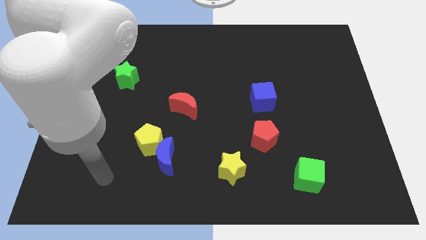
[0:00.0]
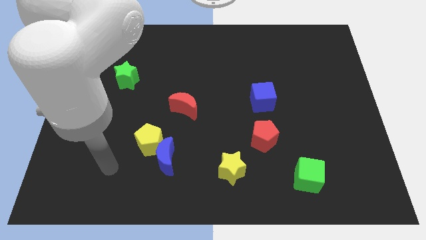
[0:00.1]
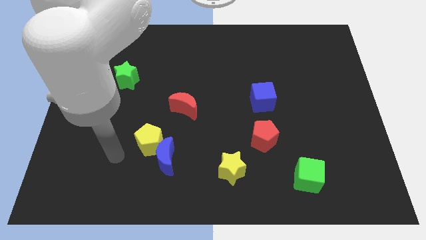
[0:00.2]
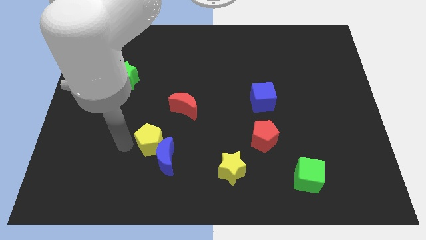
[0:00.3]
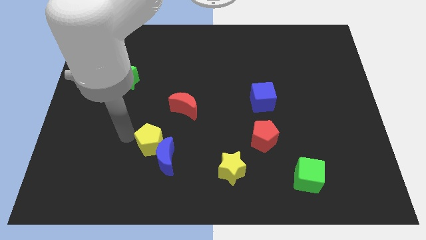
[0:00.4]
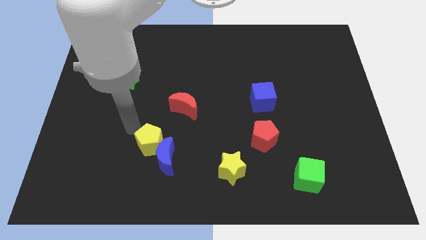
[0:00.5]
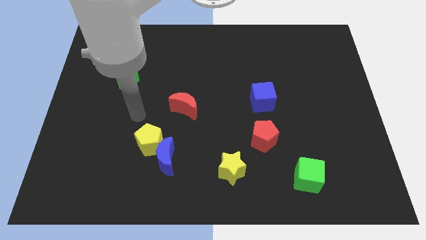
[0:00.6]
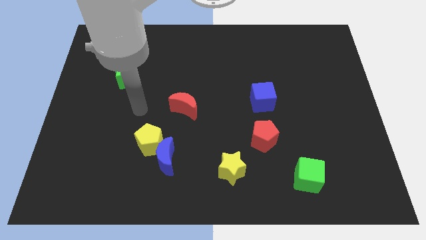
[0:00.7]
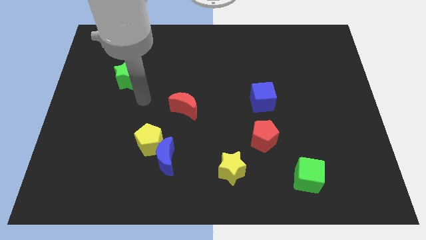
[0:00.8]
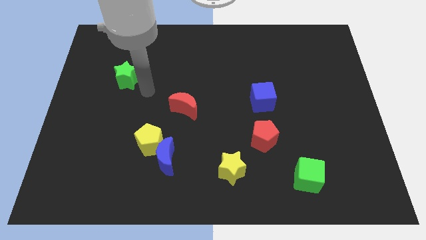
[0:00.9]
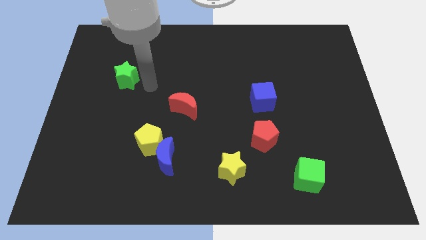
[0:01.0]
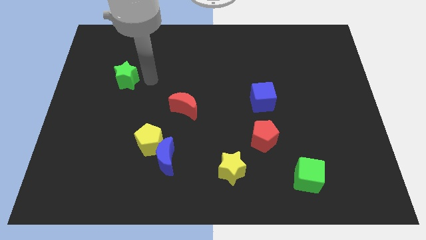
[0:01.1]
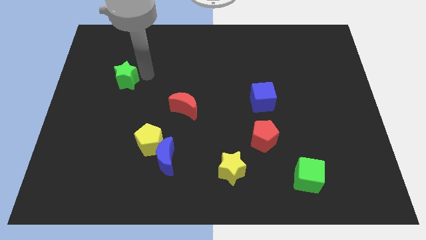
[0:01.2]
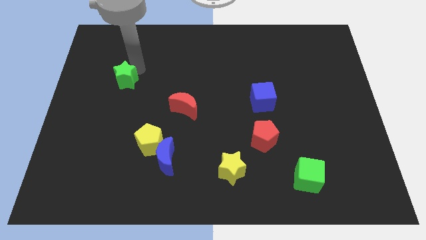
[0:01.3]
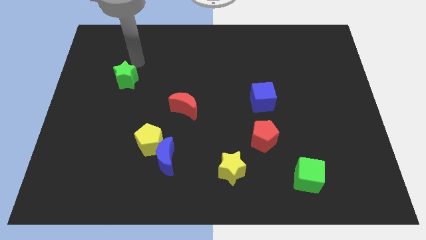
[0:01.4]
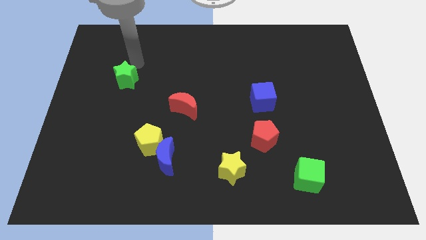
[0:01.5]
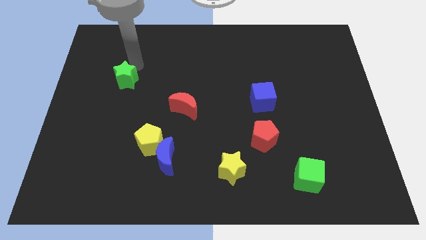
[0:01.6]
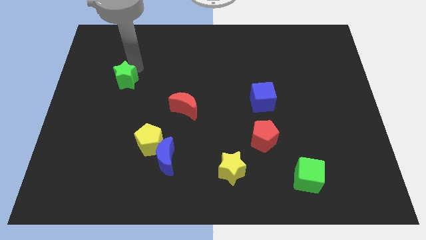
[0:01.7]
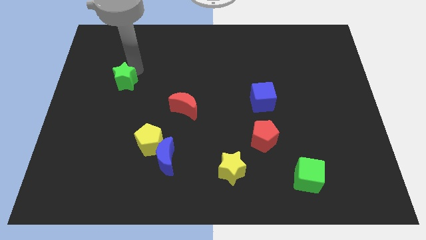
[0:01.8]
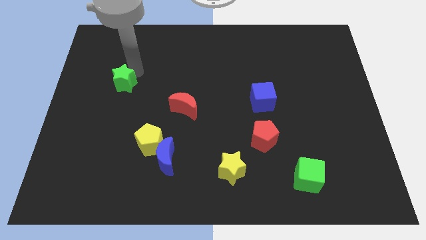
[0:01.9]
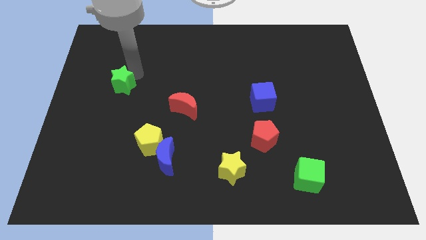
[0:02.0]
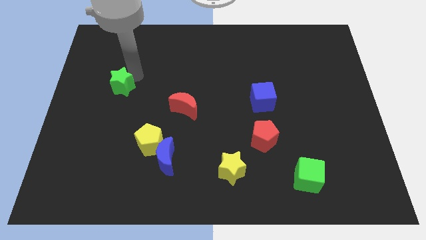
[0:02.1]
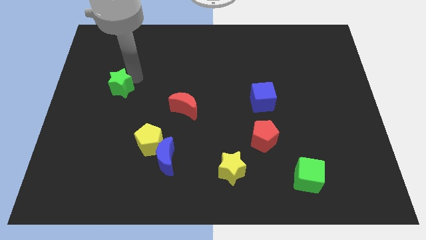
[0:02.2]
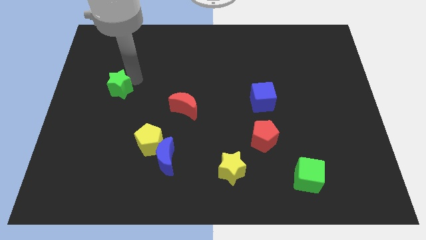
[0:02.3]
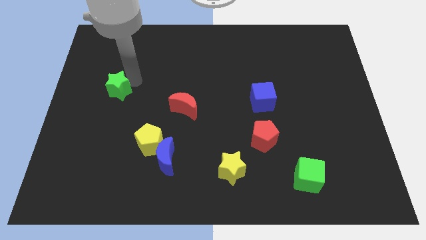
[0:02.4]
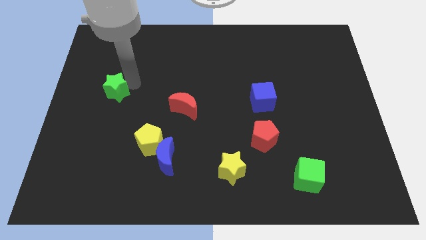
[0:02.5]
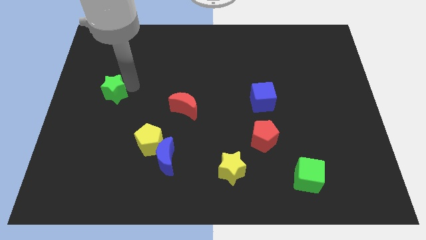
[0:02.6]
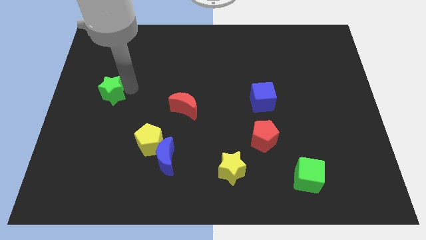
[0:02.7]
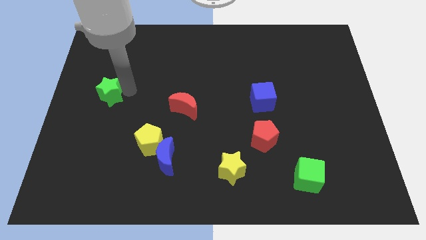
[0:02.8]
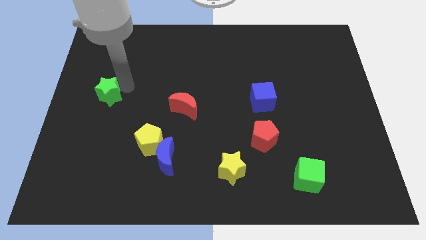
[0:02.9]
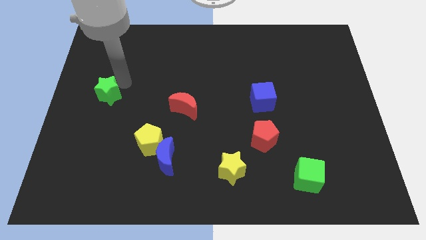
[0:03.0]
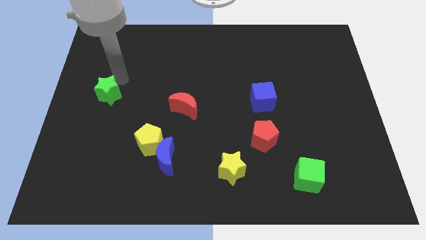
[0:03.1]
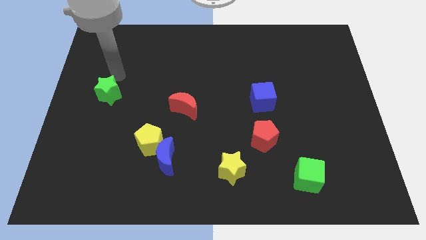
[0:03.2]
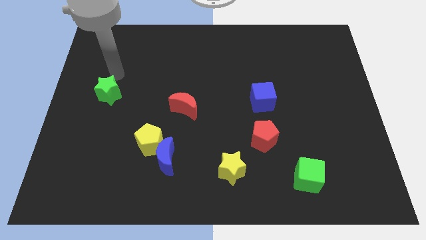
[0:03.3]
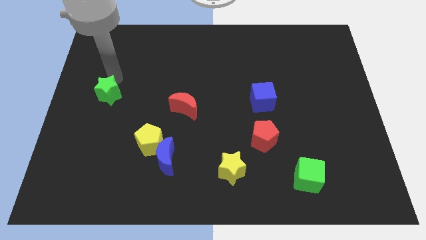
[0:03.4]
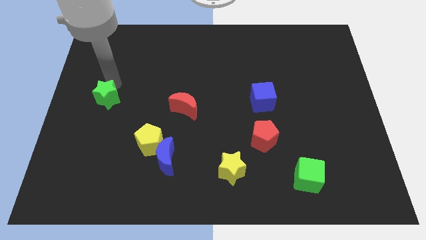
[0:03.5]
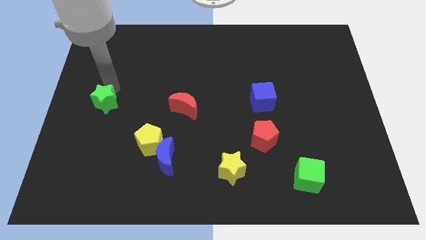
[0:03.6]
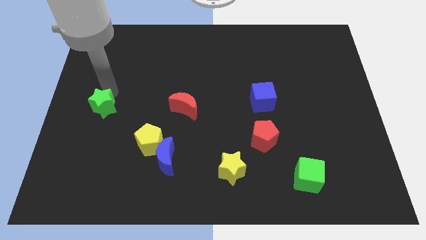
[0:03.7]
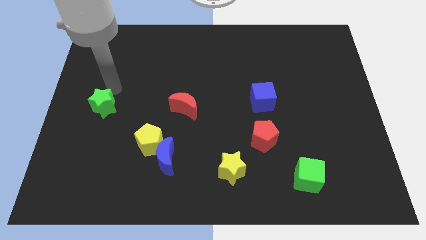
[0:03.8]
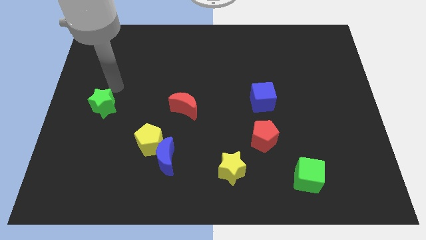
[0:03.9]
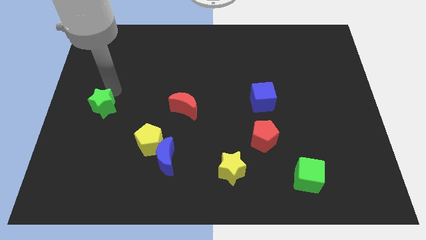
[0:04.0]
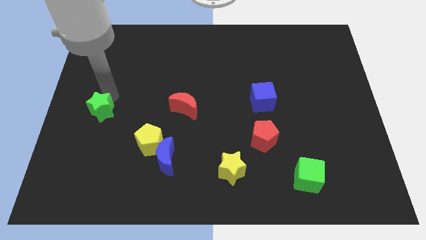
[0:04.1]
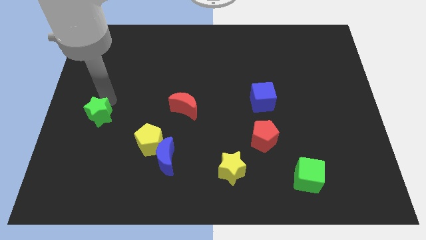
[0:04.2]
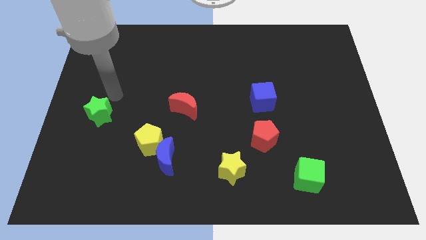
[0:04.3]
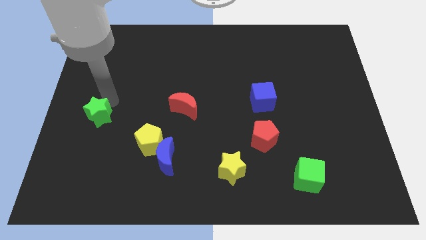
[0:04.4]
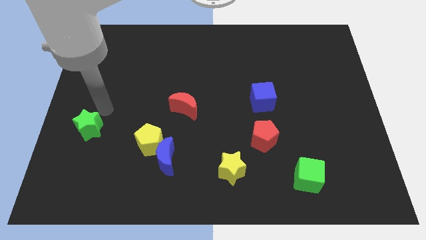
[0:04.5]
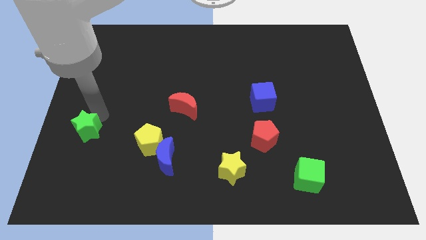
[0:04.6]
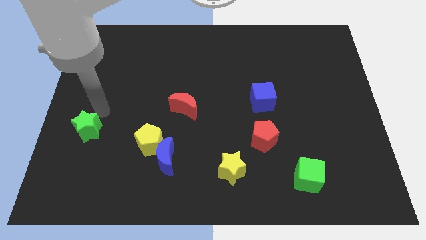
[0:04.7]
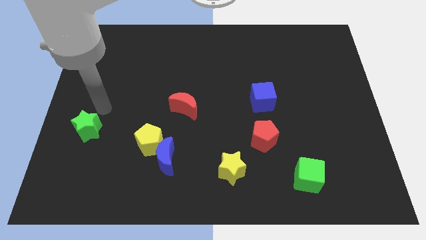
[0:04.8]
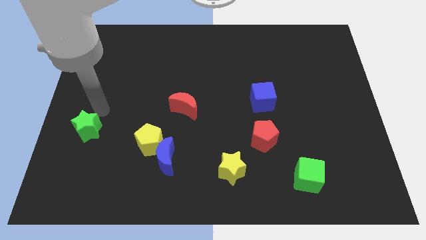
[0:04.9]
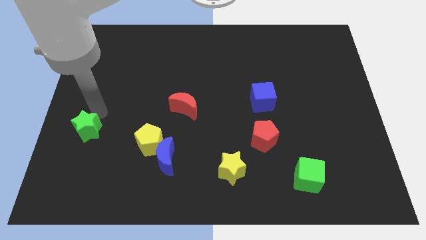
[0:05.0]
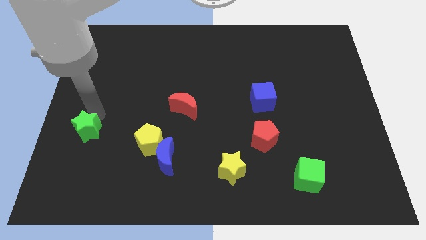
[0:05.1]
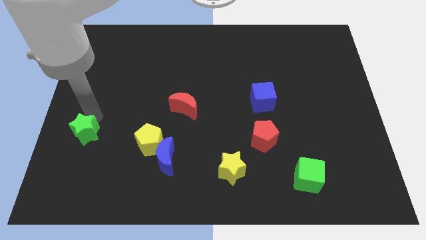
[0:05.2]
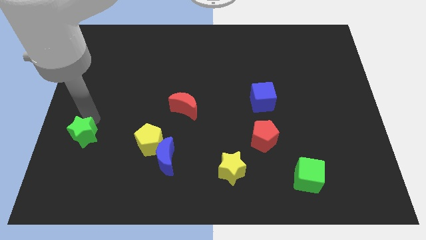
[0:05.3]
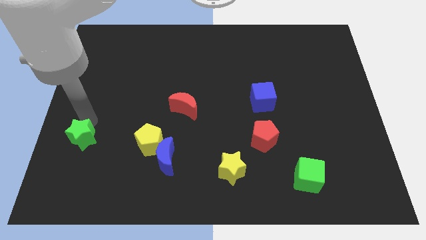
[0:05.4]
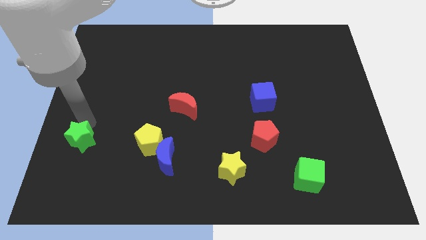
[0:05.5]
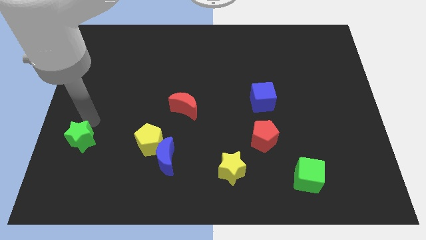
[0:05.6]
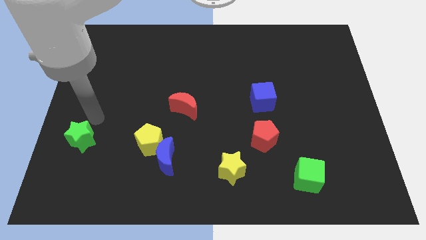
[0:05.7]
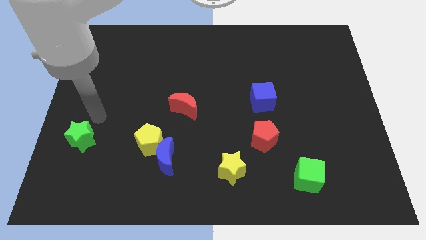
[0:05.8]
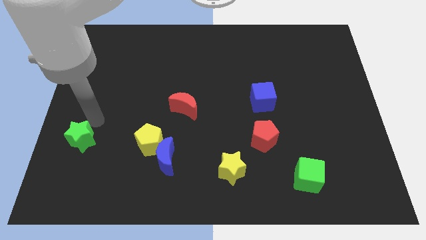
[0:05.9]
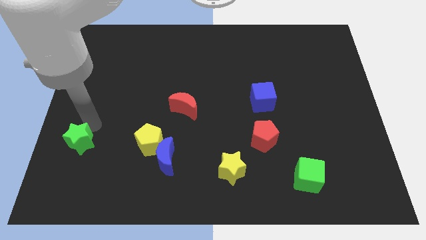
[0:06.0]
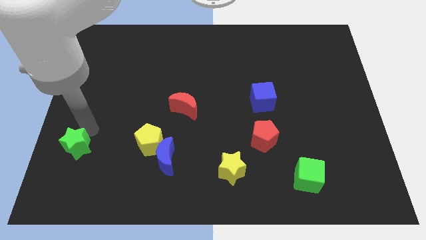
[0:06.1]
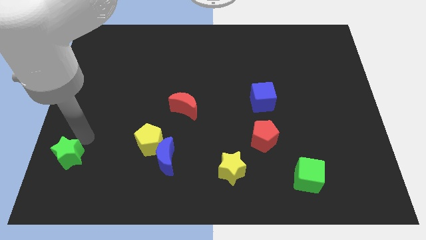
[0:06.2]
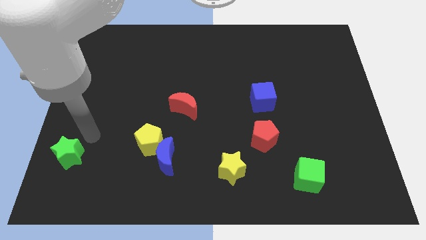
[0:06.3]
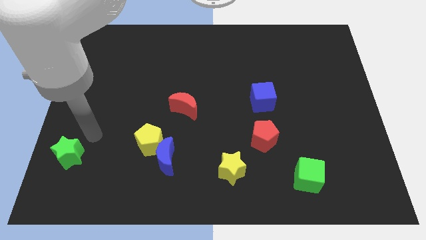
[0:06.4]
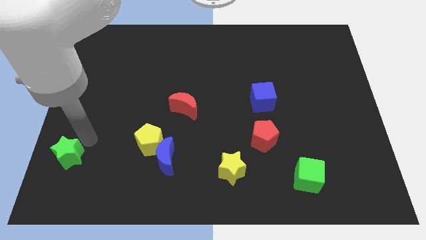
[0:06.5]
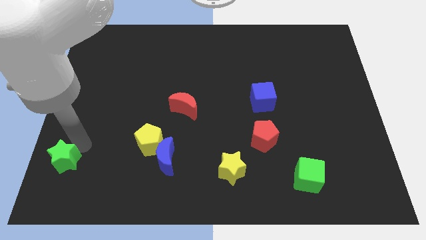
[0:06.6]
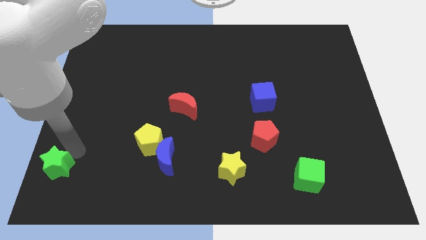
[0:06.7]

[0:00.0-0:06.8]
put the green star to the bottom left corner
